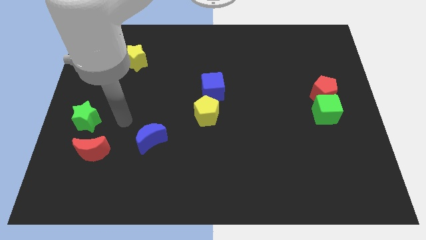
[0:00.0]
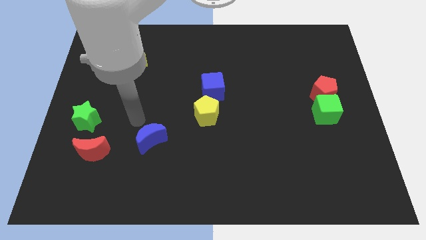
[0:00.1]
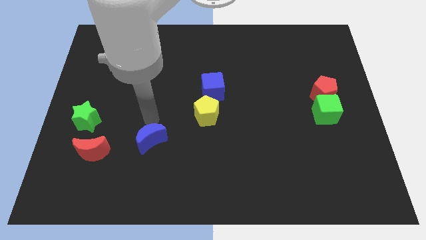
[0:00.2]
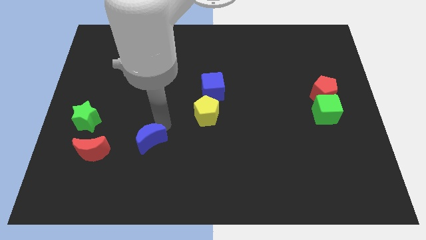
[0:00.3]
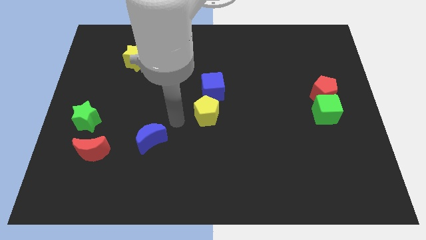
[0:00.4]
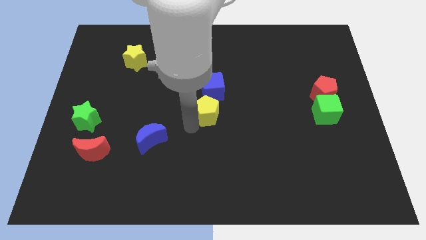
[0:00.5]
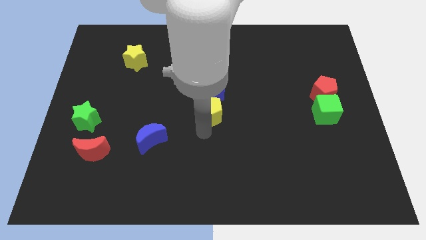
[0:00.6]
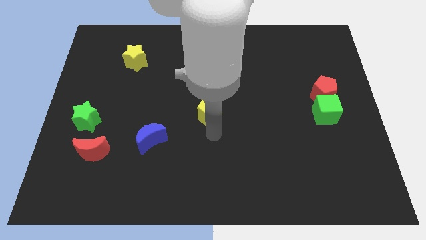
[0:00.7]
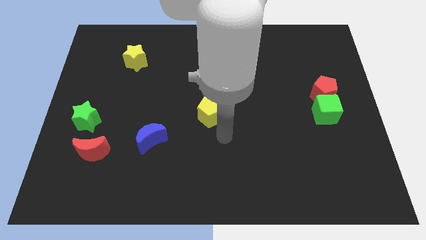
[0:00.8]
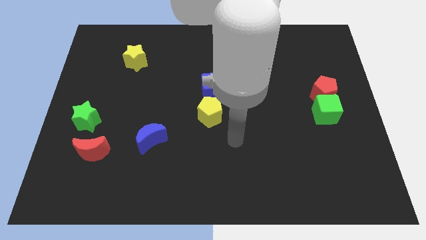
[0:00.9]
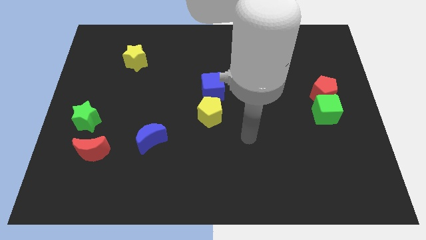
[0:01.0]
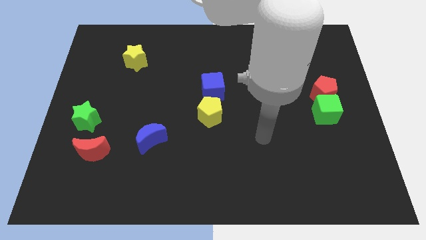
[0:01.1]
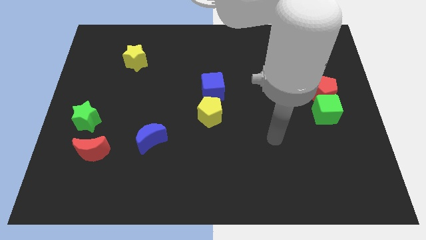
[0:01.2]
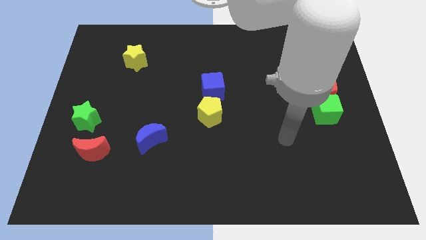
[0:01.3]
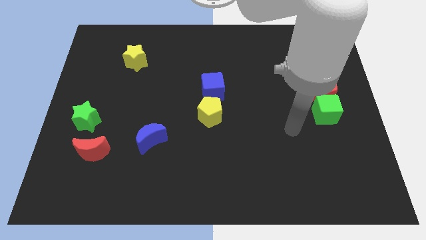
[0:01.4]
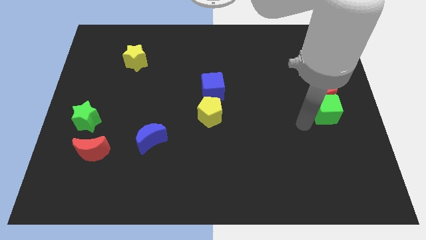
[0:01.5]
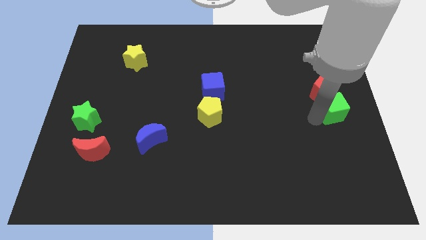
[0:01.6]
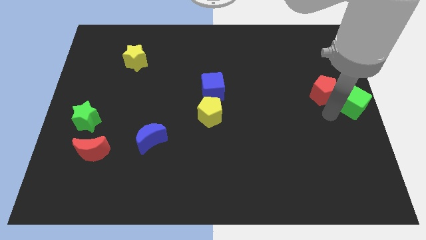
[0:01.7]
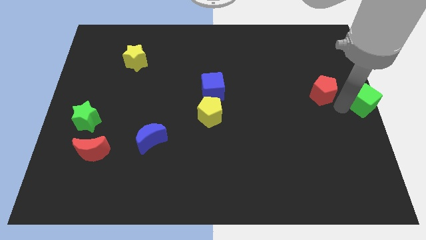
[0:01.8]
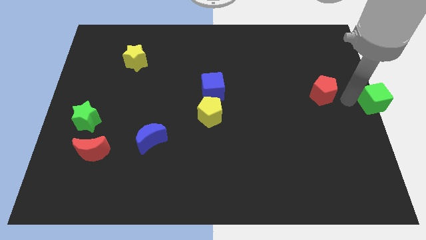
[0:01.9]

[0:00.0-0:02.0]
pull the red pentagon apart from the green cube

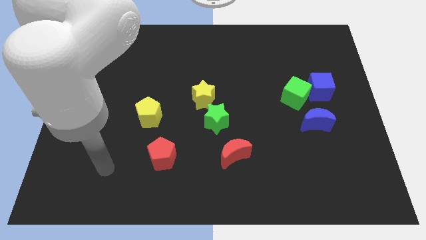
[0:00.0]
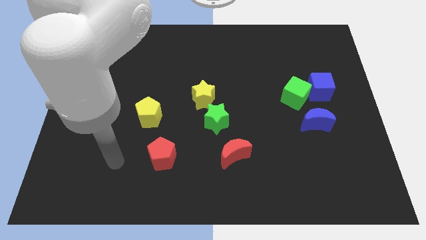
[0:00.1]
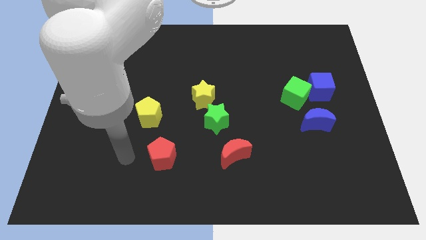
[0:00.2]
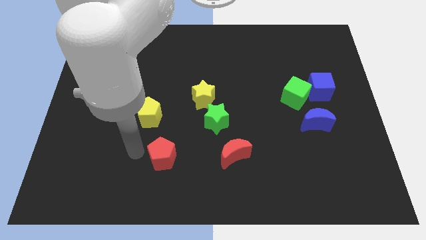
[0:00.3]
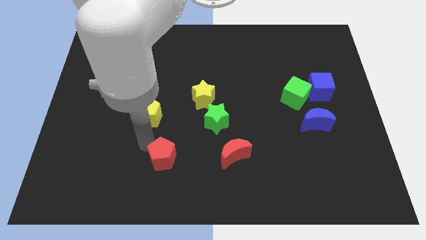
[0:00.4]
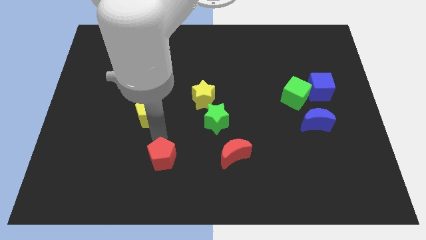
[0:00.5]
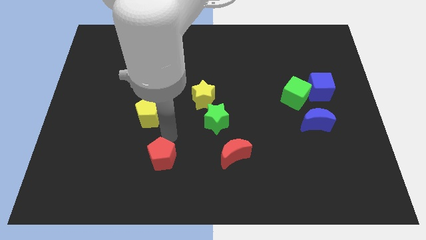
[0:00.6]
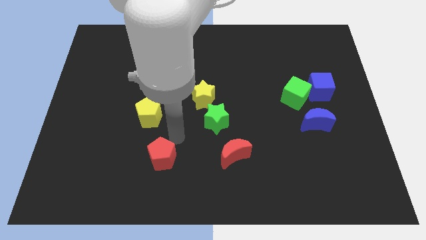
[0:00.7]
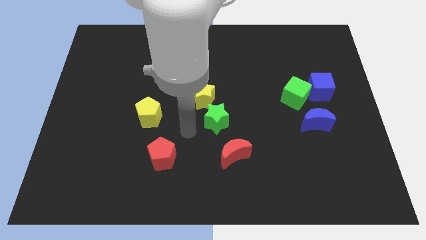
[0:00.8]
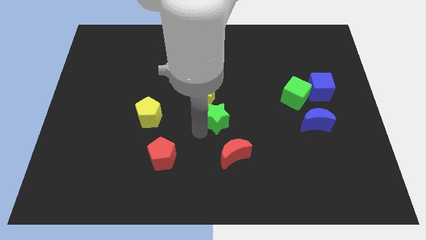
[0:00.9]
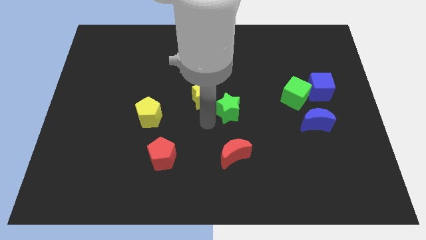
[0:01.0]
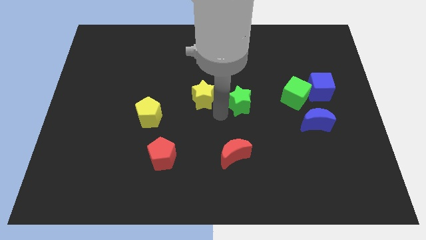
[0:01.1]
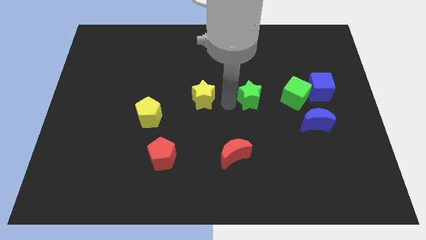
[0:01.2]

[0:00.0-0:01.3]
separate the yellow star from the green star

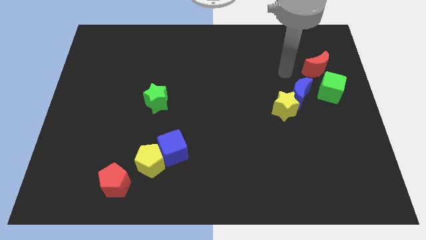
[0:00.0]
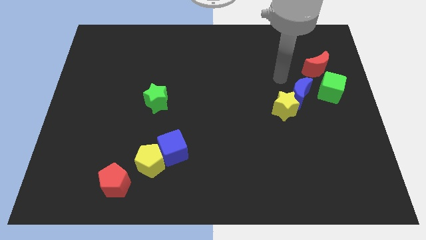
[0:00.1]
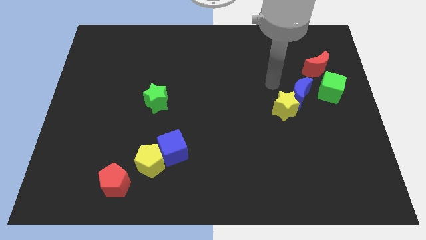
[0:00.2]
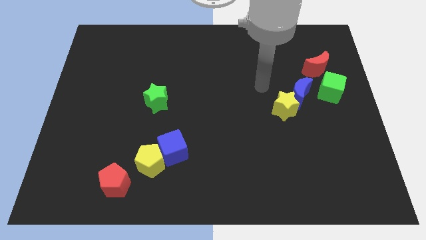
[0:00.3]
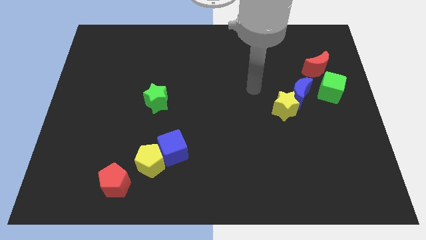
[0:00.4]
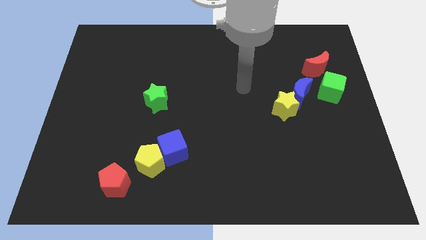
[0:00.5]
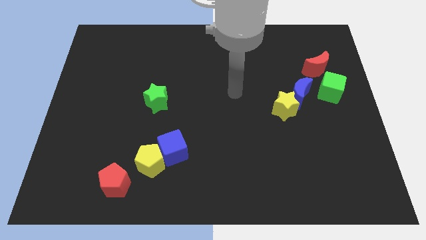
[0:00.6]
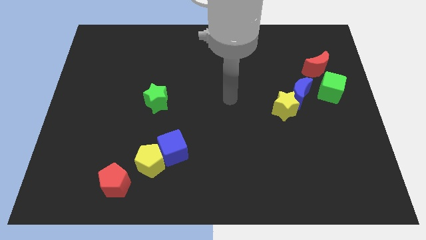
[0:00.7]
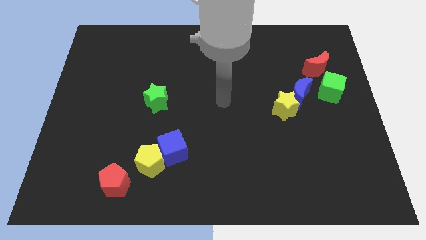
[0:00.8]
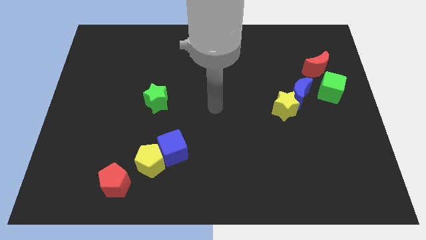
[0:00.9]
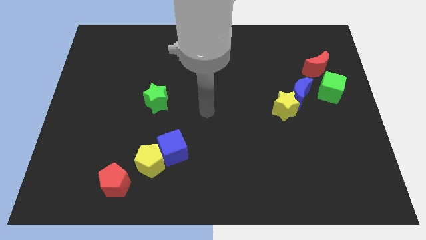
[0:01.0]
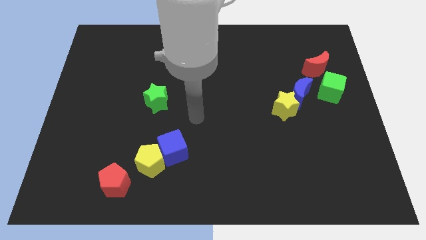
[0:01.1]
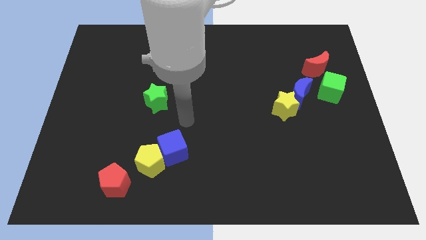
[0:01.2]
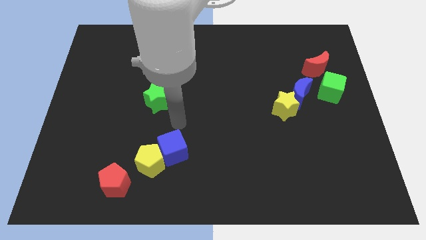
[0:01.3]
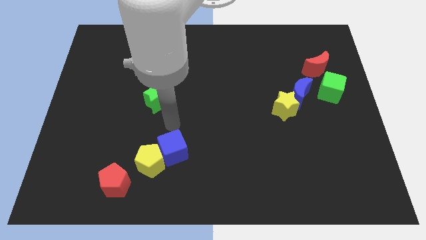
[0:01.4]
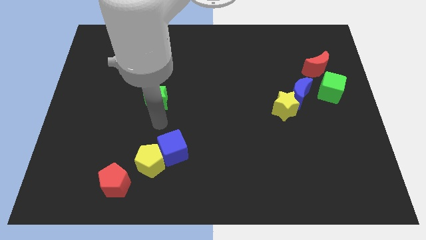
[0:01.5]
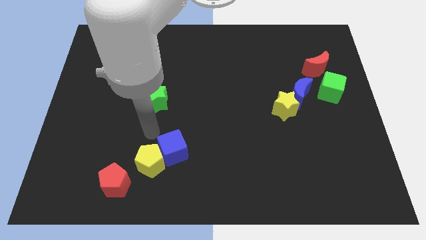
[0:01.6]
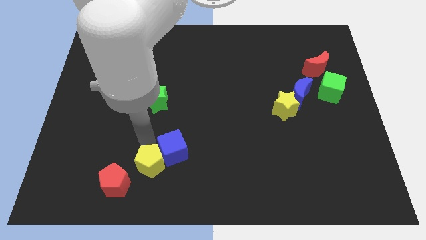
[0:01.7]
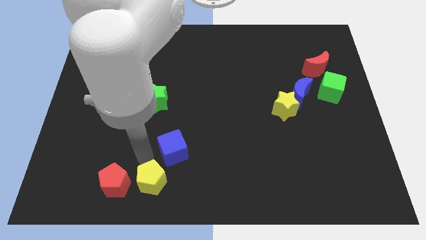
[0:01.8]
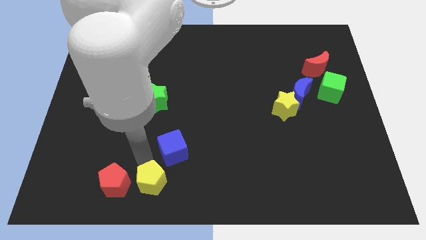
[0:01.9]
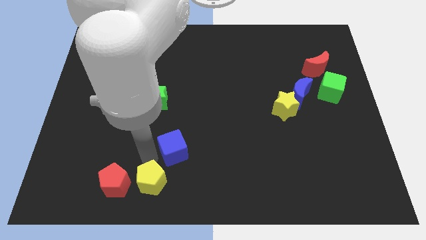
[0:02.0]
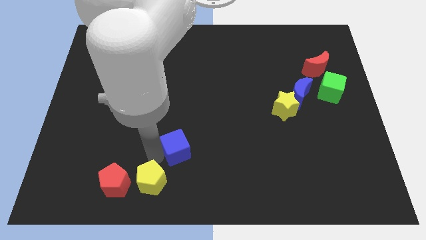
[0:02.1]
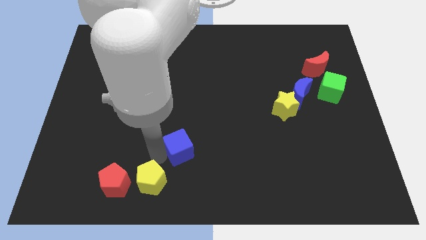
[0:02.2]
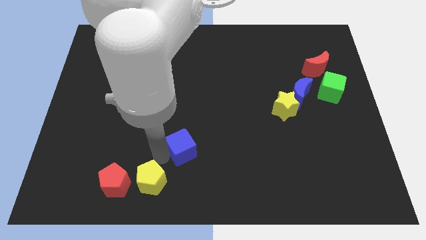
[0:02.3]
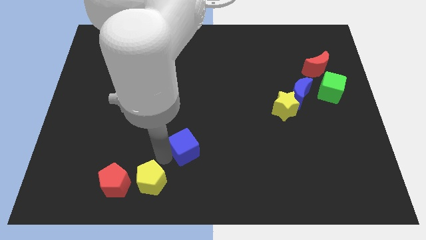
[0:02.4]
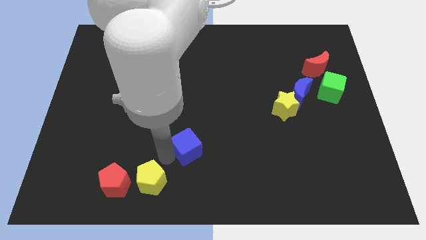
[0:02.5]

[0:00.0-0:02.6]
move the blue cube away from the yellow pentagon

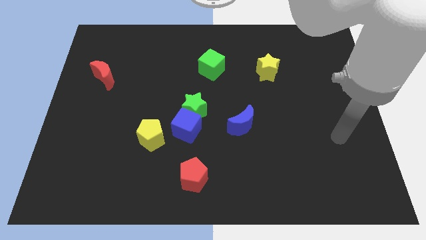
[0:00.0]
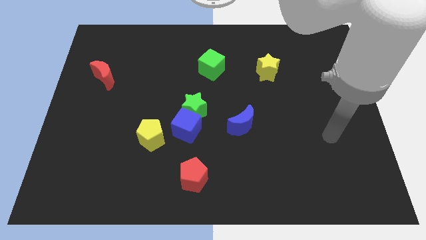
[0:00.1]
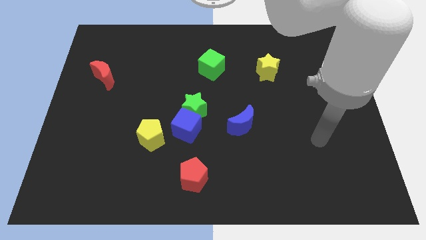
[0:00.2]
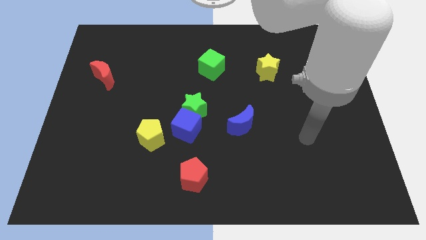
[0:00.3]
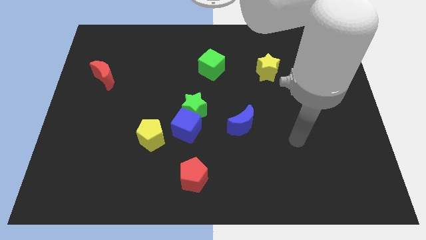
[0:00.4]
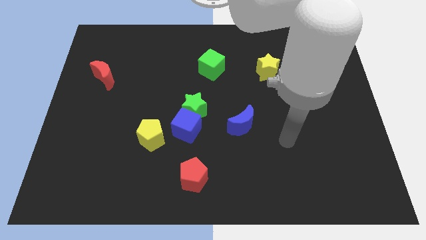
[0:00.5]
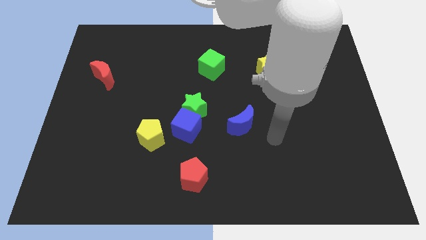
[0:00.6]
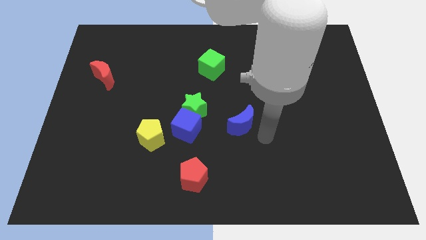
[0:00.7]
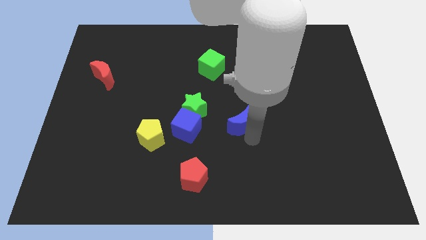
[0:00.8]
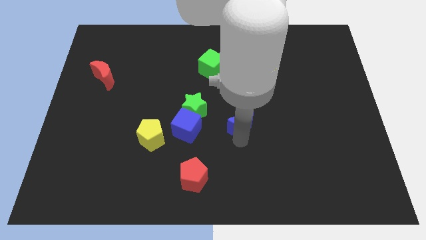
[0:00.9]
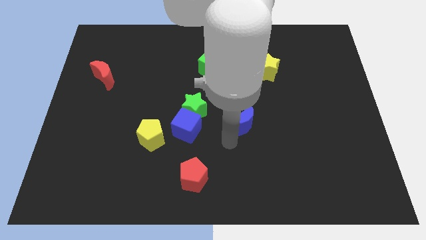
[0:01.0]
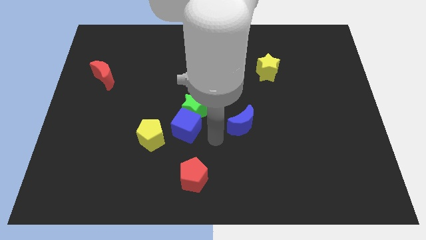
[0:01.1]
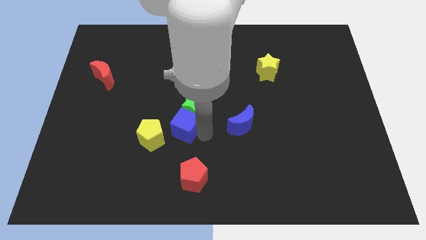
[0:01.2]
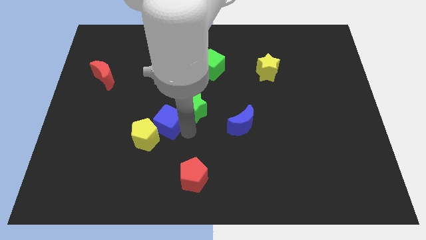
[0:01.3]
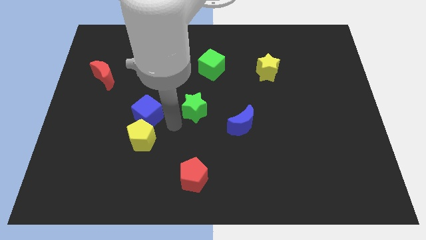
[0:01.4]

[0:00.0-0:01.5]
pull the green star apart from the blue cube

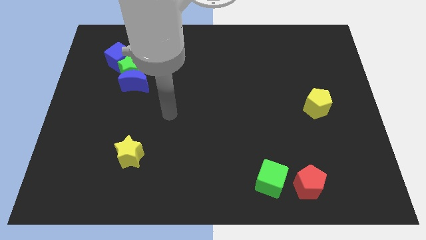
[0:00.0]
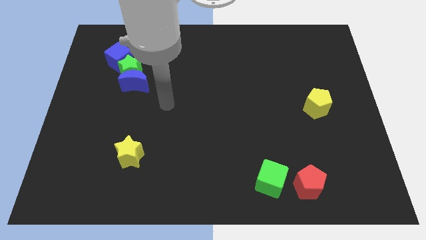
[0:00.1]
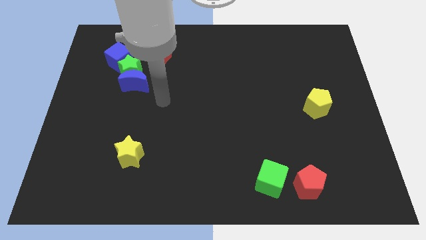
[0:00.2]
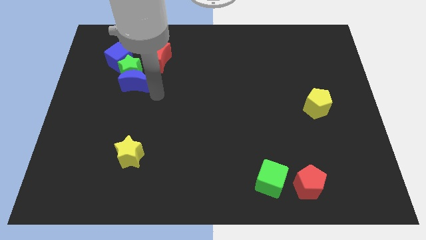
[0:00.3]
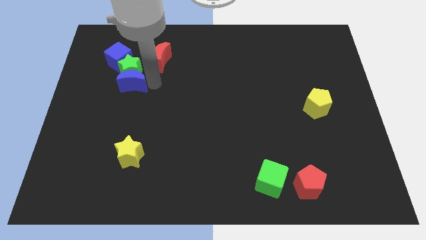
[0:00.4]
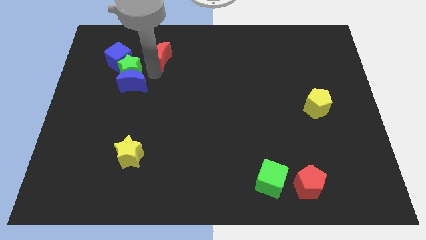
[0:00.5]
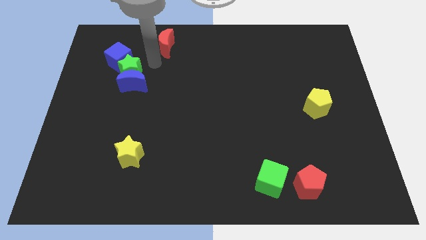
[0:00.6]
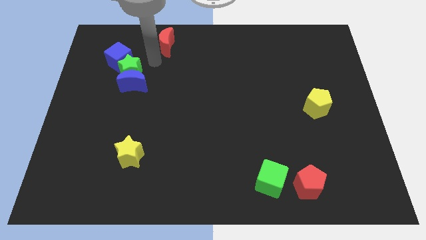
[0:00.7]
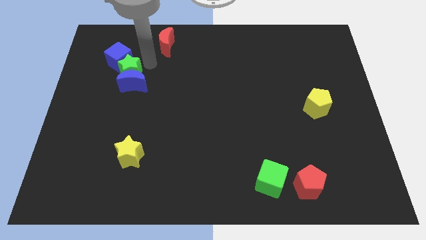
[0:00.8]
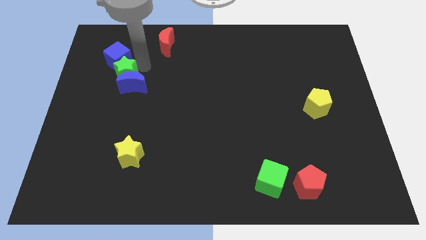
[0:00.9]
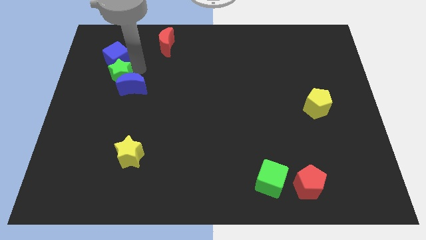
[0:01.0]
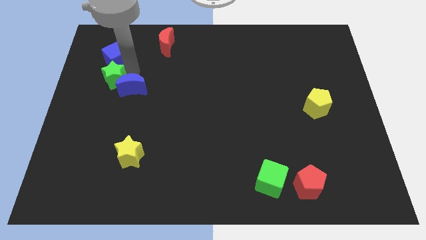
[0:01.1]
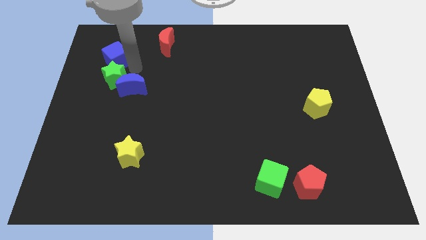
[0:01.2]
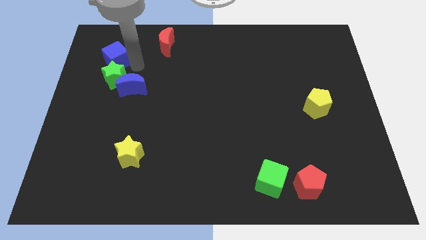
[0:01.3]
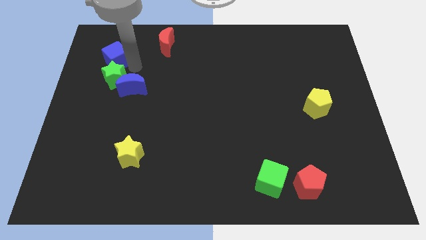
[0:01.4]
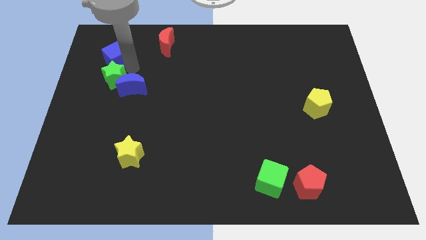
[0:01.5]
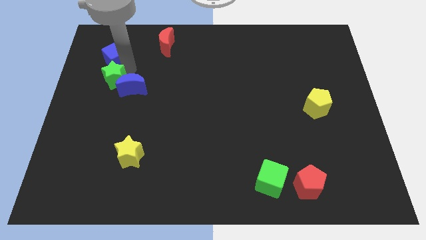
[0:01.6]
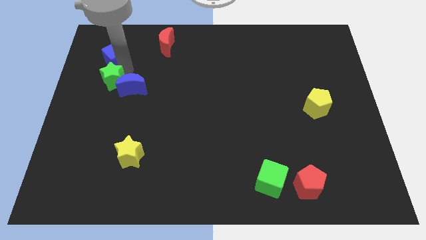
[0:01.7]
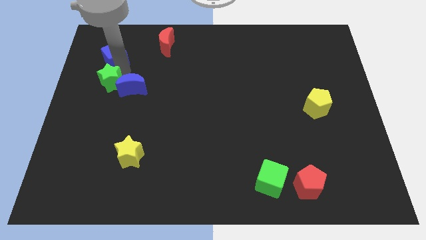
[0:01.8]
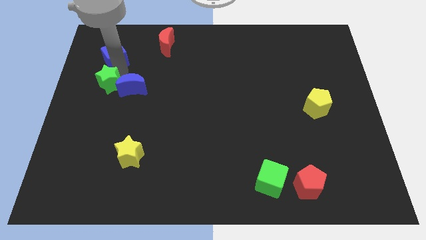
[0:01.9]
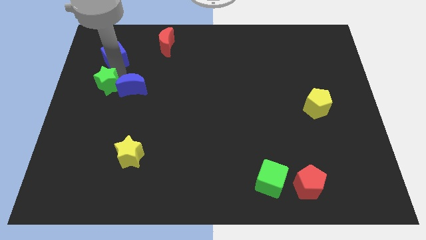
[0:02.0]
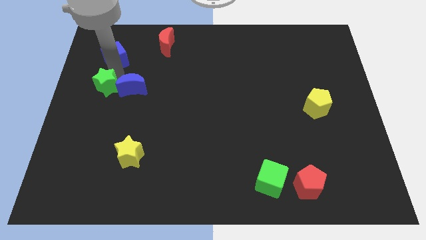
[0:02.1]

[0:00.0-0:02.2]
pull the green star apart from the blue moon, blue cube, and red moon
